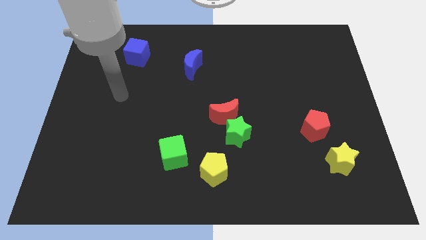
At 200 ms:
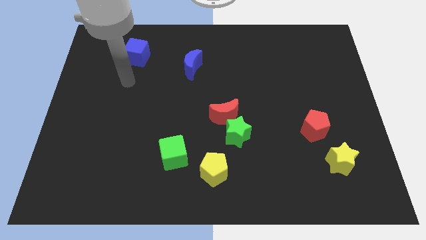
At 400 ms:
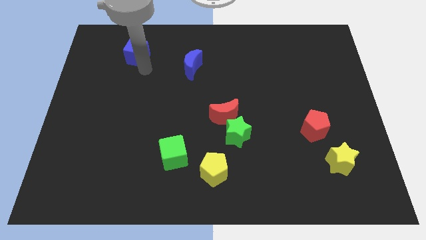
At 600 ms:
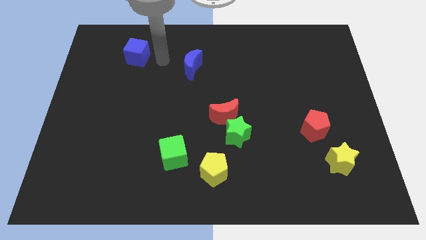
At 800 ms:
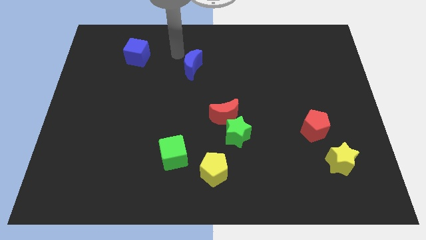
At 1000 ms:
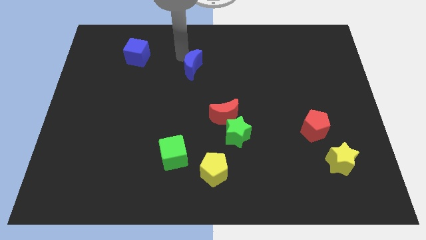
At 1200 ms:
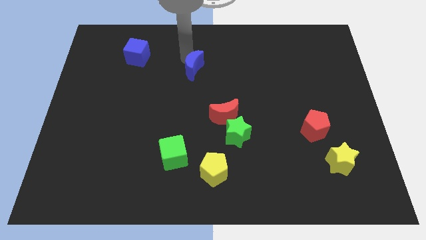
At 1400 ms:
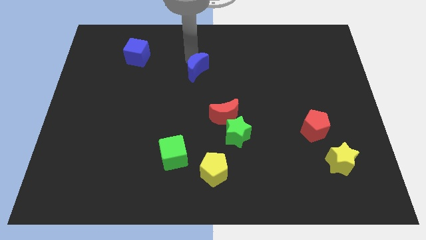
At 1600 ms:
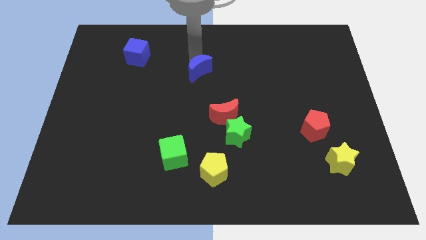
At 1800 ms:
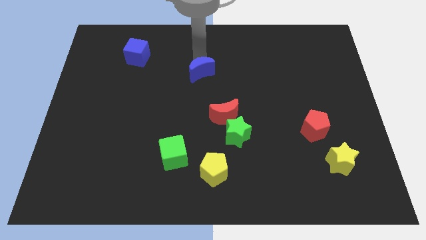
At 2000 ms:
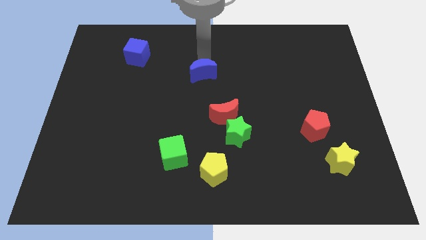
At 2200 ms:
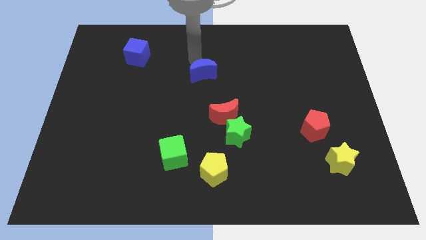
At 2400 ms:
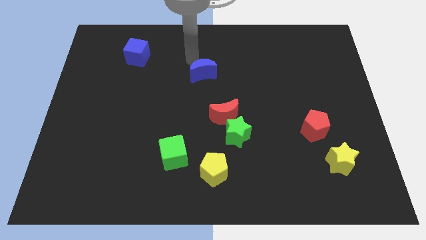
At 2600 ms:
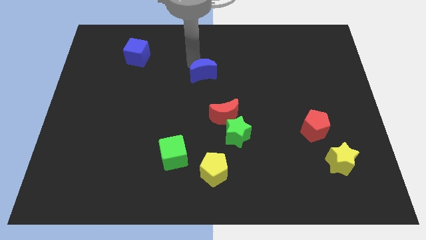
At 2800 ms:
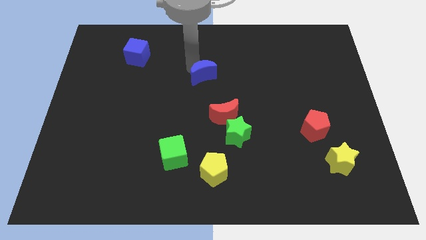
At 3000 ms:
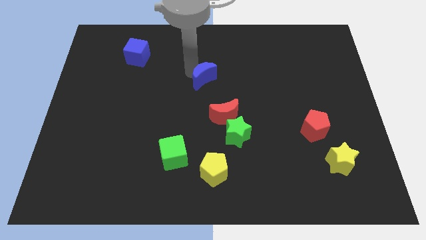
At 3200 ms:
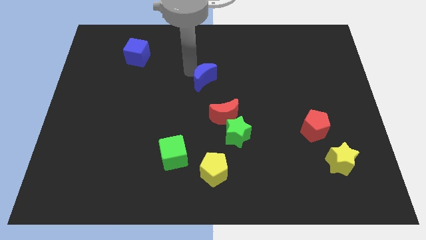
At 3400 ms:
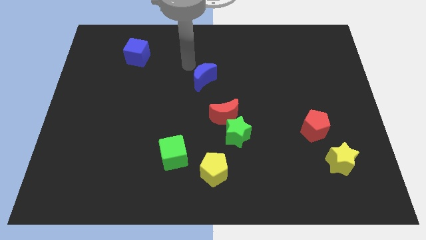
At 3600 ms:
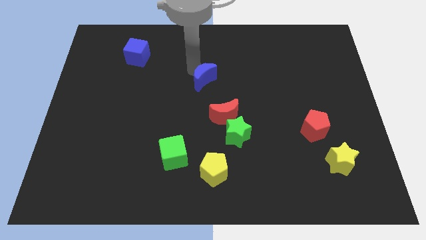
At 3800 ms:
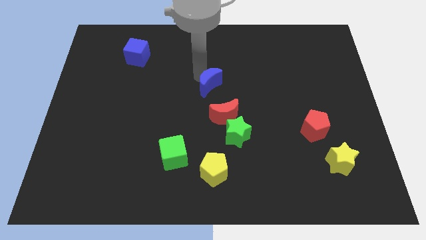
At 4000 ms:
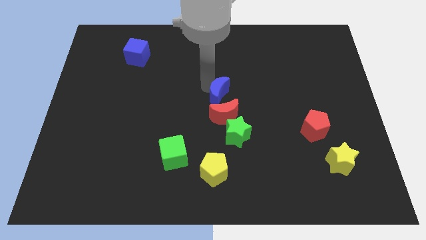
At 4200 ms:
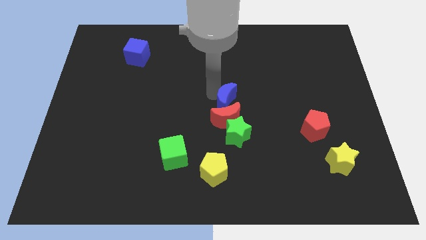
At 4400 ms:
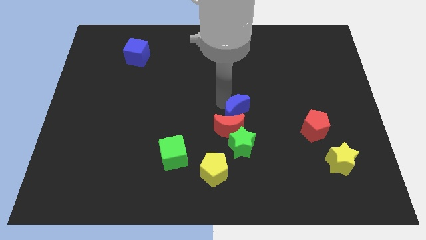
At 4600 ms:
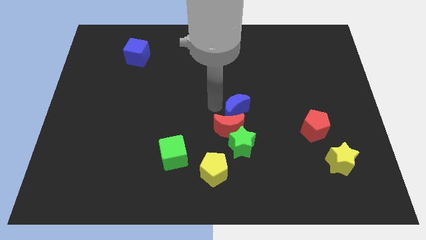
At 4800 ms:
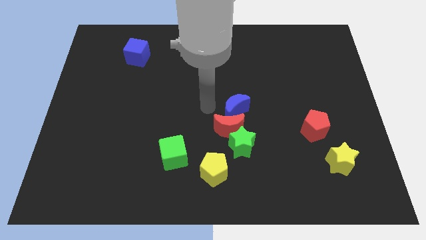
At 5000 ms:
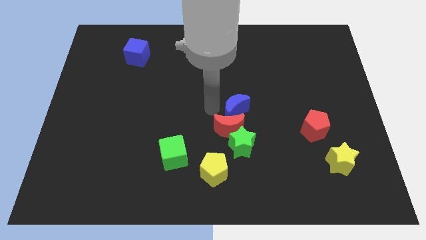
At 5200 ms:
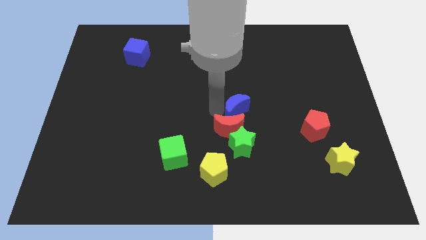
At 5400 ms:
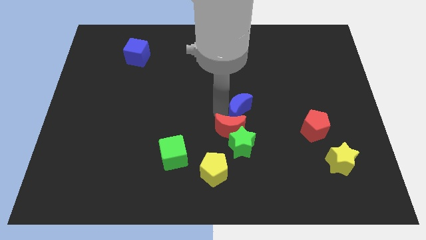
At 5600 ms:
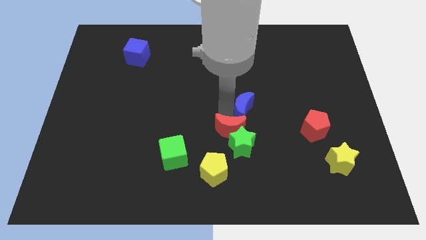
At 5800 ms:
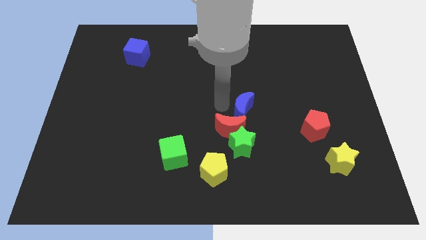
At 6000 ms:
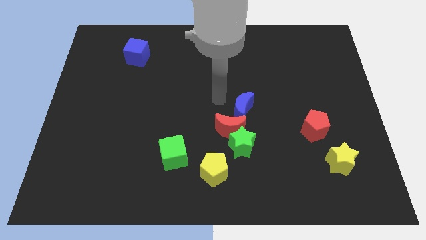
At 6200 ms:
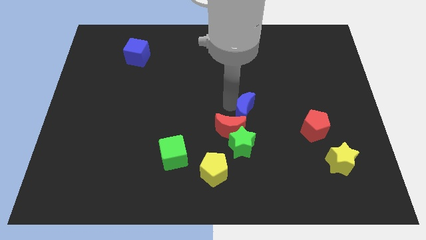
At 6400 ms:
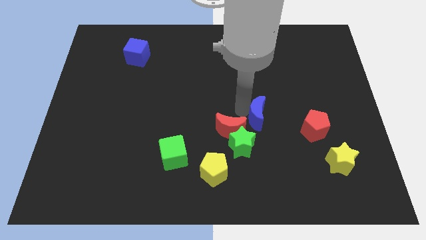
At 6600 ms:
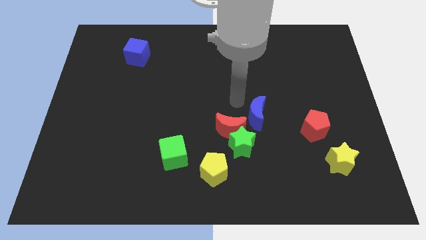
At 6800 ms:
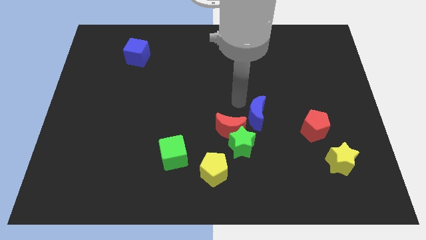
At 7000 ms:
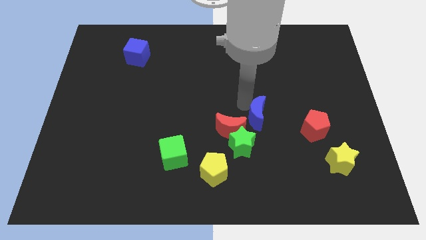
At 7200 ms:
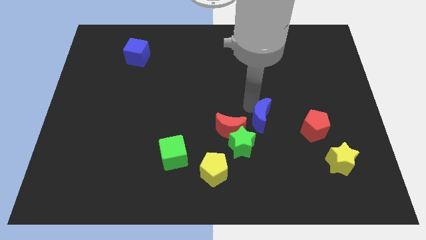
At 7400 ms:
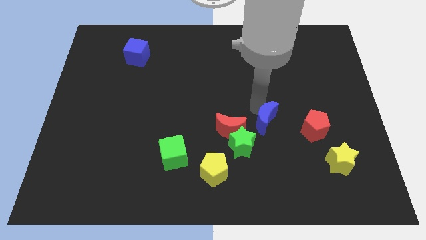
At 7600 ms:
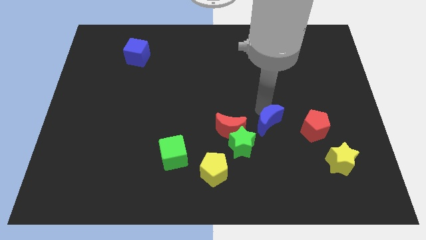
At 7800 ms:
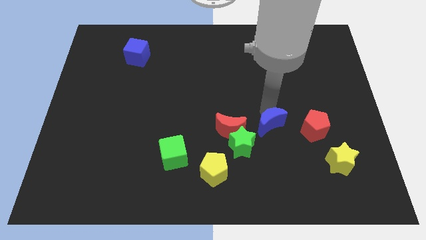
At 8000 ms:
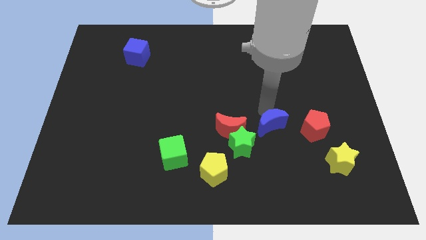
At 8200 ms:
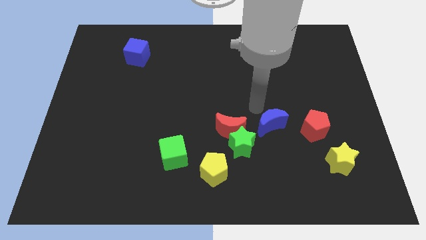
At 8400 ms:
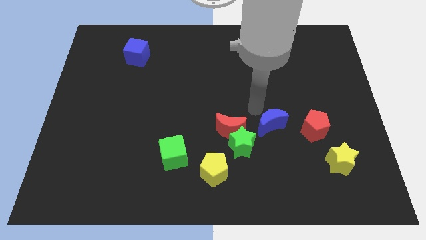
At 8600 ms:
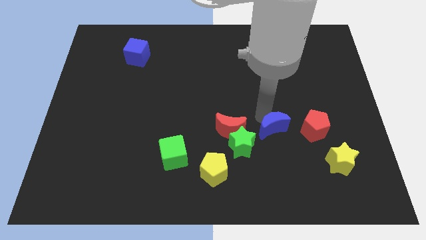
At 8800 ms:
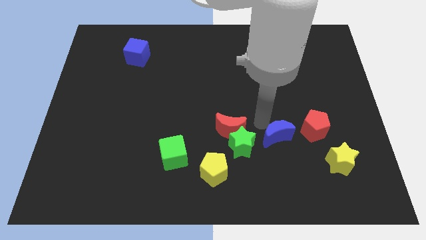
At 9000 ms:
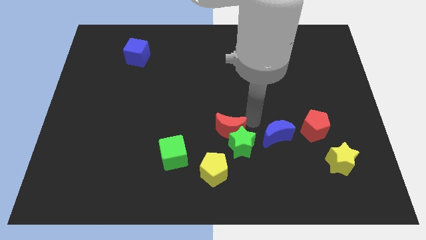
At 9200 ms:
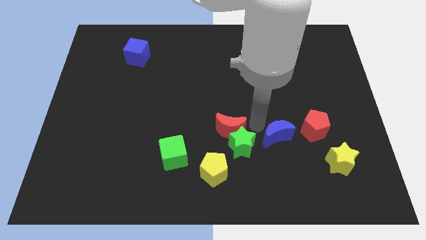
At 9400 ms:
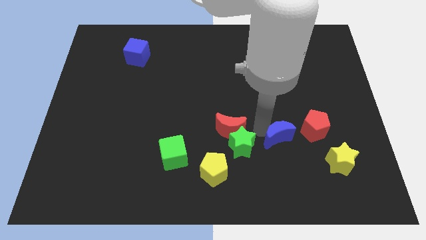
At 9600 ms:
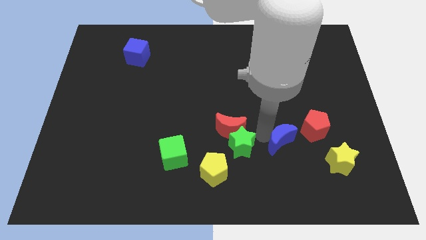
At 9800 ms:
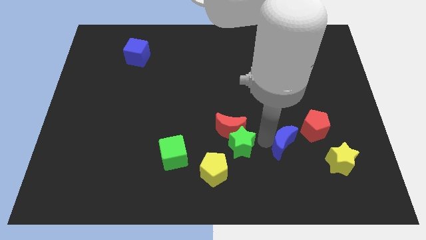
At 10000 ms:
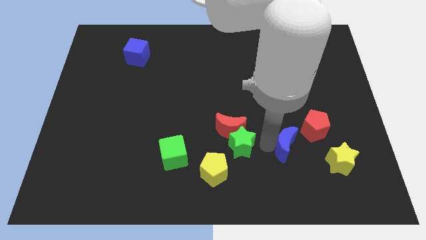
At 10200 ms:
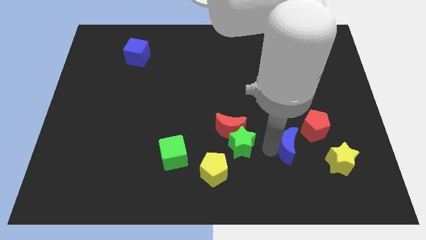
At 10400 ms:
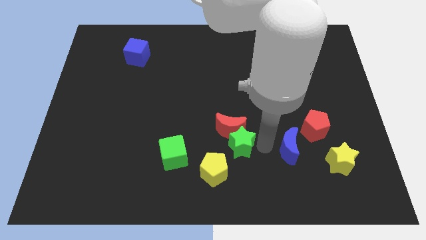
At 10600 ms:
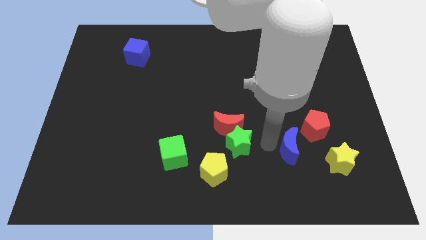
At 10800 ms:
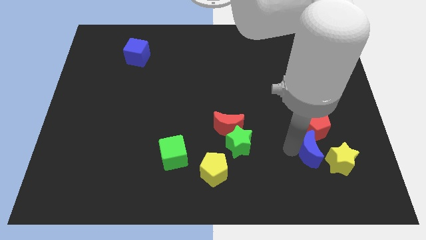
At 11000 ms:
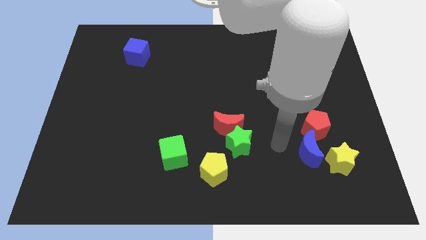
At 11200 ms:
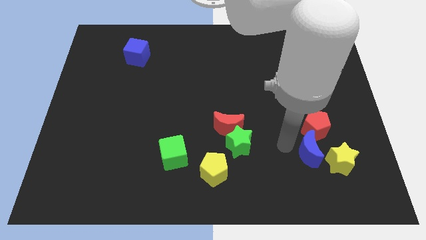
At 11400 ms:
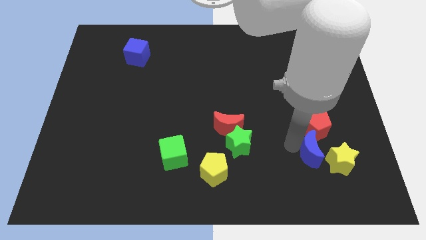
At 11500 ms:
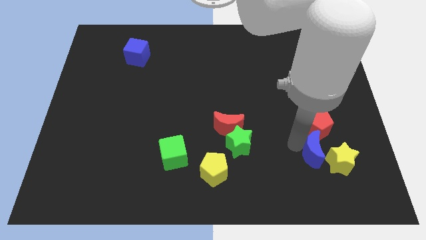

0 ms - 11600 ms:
move the blue moon close to the yellow star

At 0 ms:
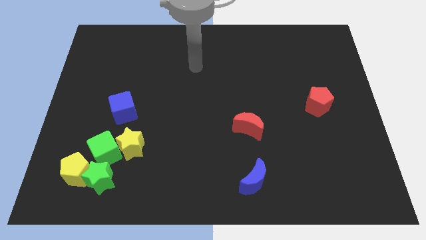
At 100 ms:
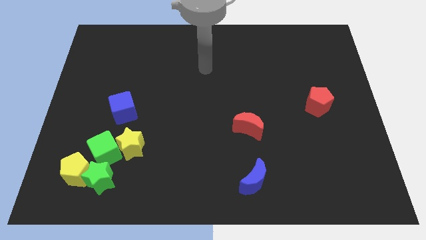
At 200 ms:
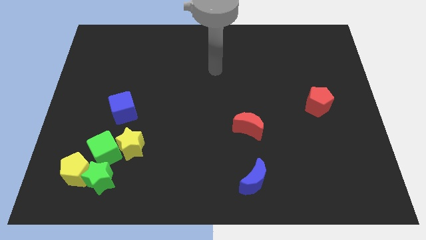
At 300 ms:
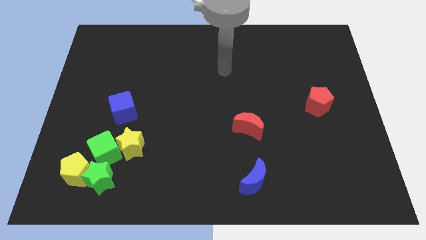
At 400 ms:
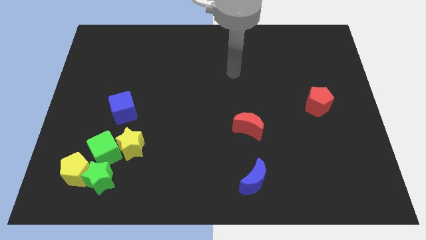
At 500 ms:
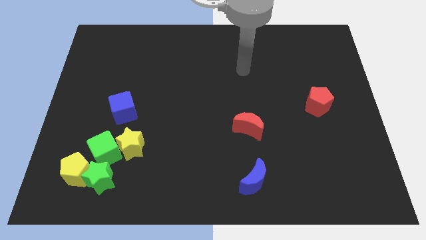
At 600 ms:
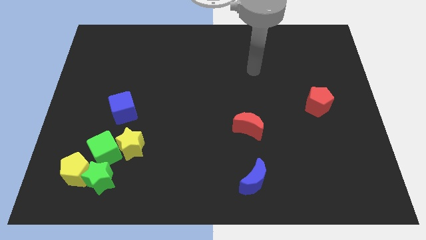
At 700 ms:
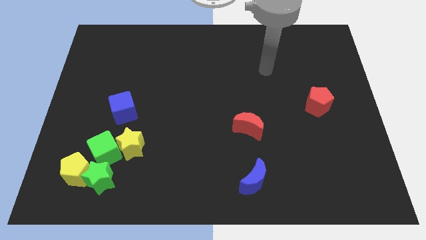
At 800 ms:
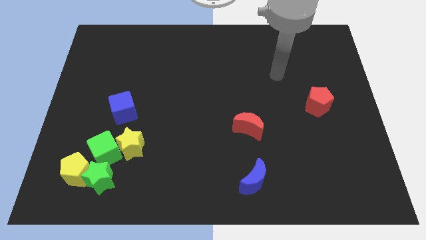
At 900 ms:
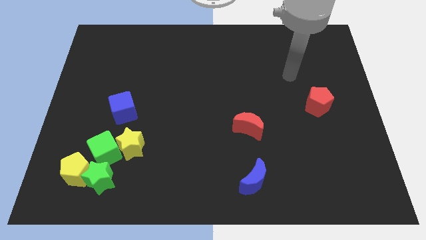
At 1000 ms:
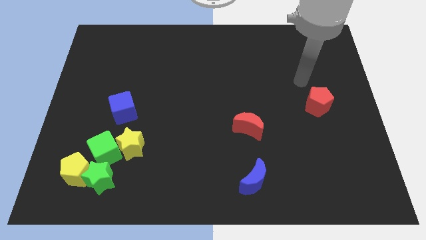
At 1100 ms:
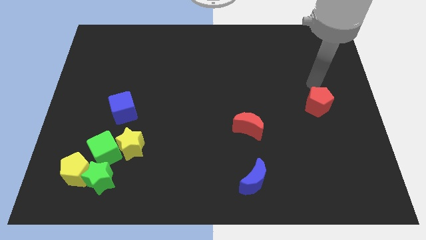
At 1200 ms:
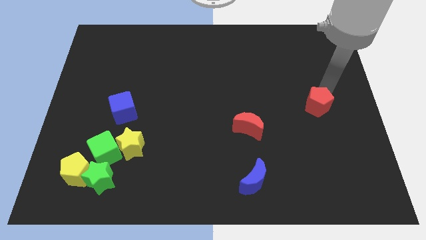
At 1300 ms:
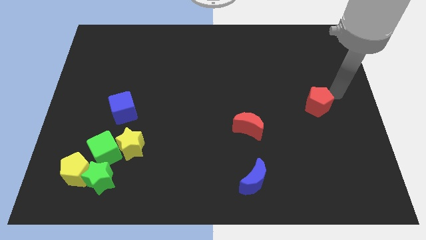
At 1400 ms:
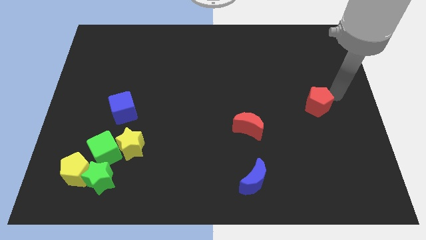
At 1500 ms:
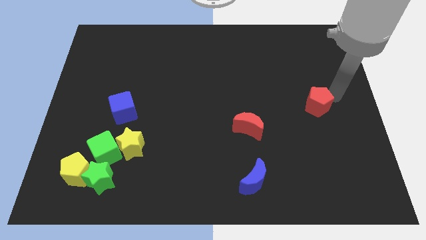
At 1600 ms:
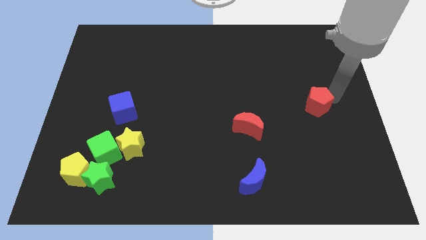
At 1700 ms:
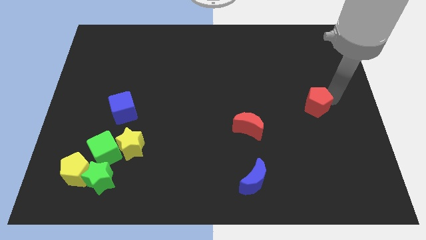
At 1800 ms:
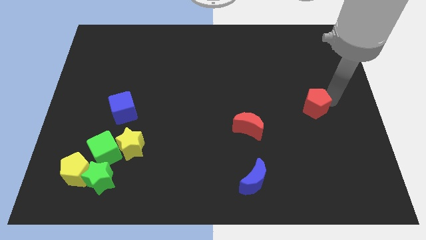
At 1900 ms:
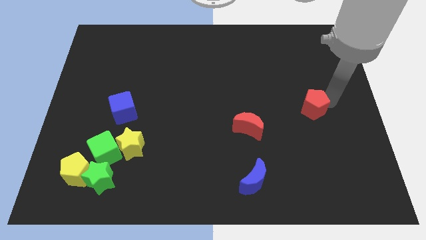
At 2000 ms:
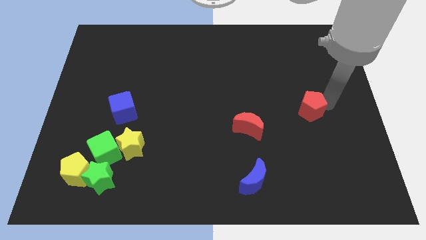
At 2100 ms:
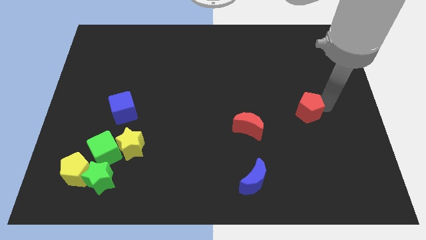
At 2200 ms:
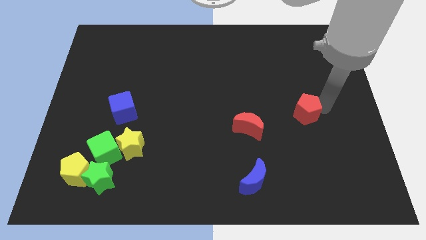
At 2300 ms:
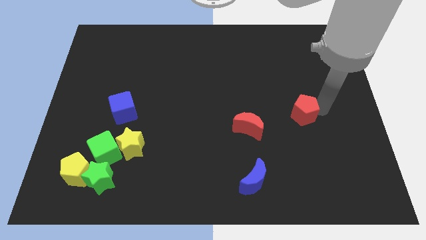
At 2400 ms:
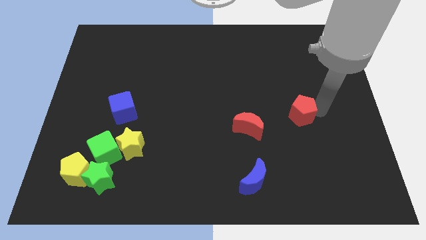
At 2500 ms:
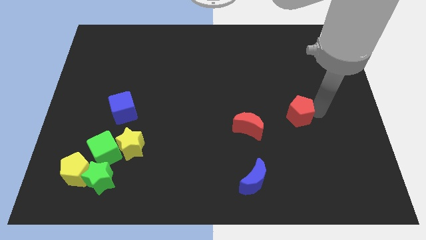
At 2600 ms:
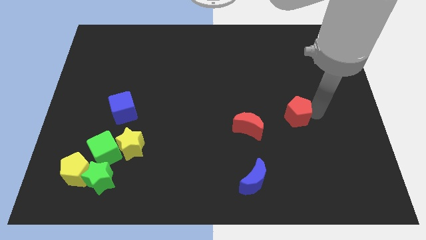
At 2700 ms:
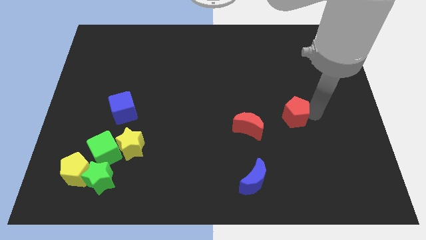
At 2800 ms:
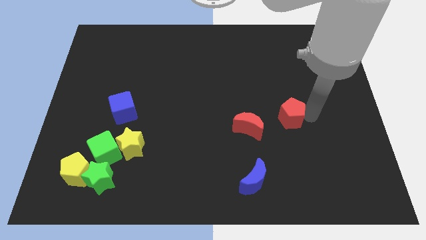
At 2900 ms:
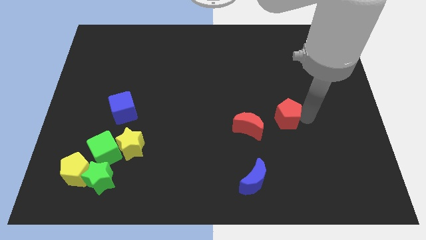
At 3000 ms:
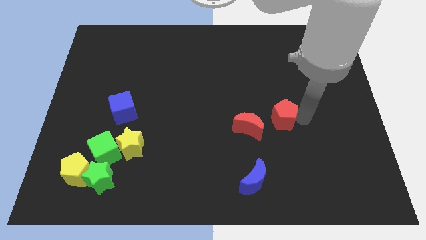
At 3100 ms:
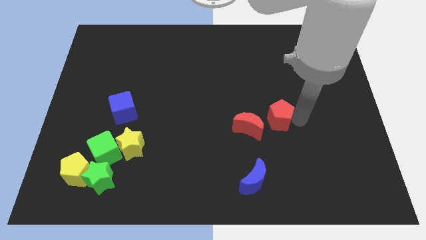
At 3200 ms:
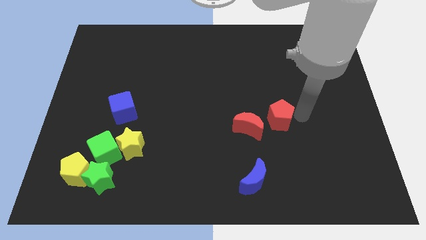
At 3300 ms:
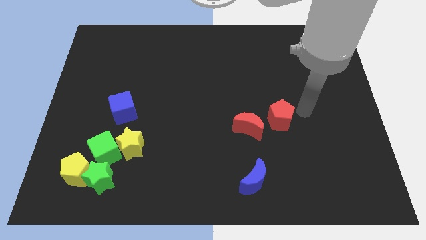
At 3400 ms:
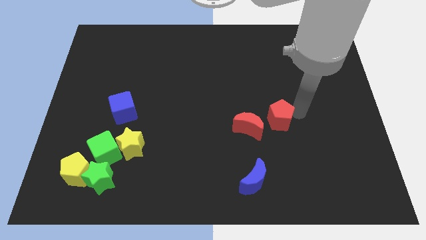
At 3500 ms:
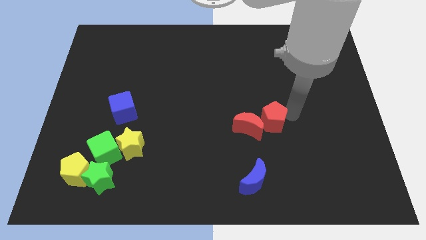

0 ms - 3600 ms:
push the red pentagon close to the red moon
